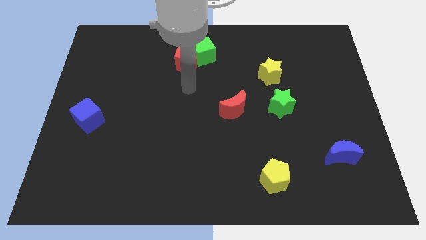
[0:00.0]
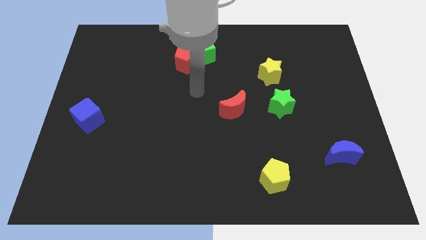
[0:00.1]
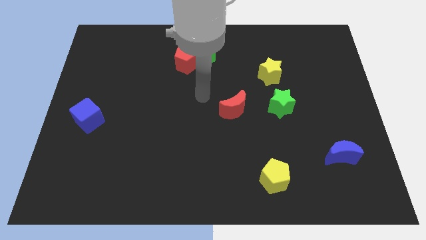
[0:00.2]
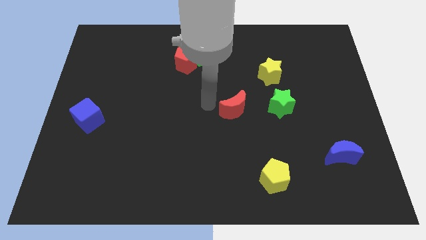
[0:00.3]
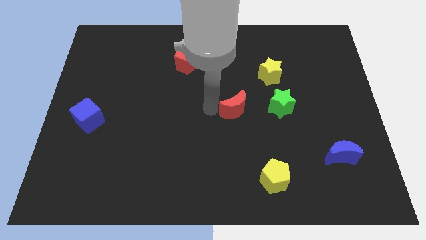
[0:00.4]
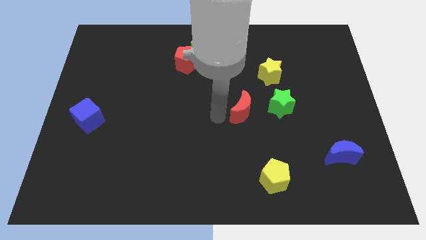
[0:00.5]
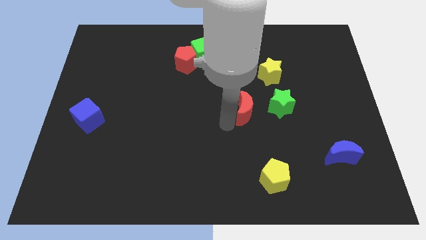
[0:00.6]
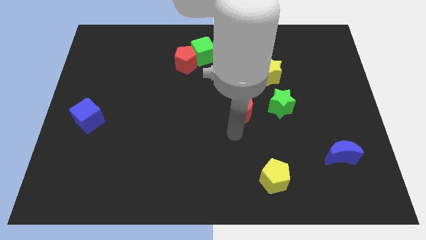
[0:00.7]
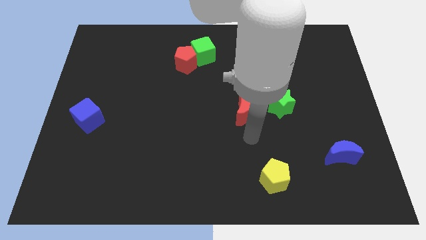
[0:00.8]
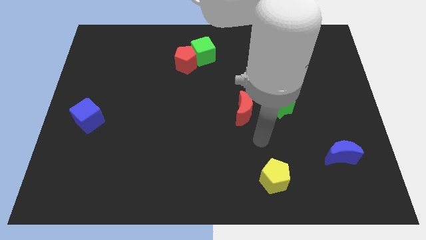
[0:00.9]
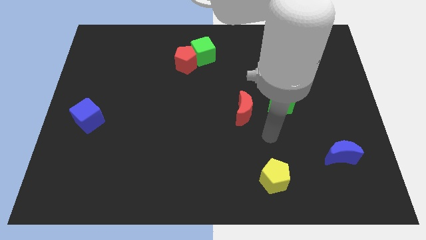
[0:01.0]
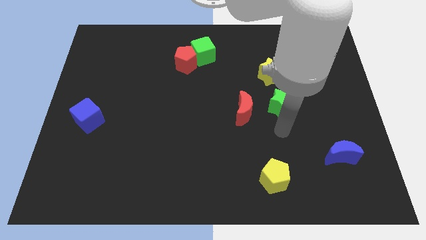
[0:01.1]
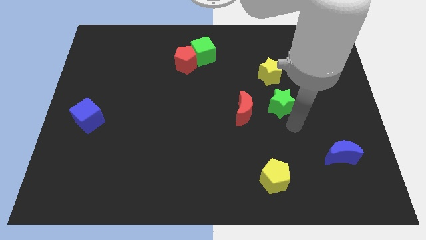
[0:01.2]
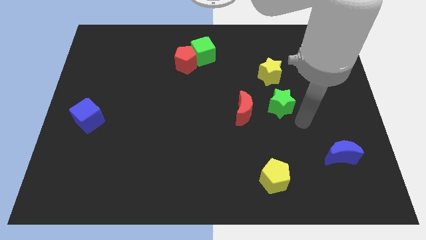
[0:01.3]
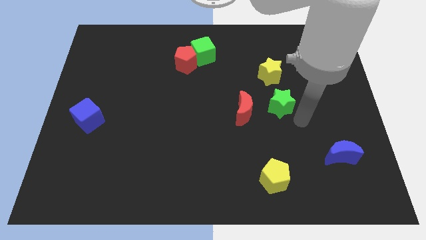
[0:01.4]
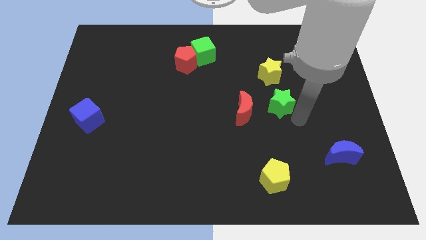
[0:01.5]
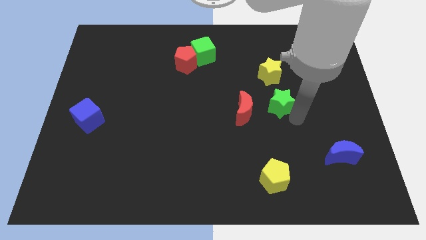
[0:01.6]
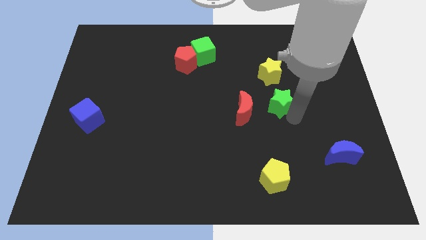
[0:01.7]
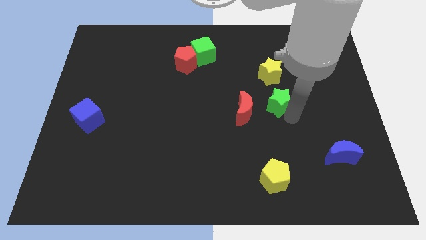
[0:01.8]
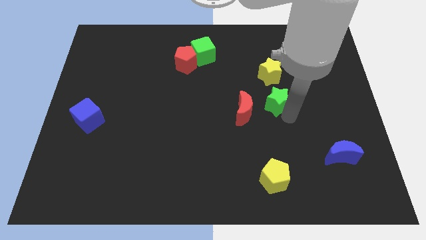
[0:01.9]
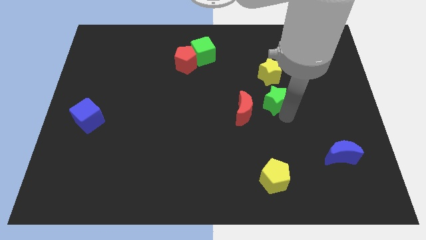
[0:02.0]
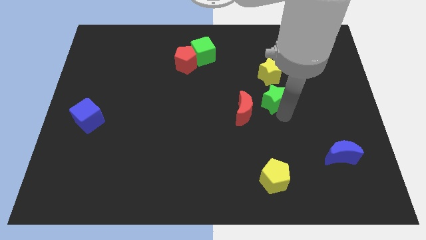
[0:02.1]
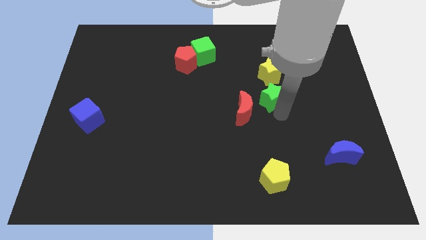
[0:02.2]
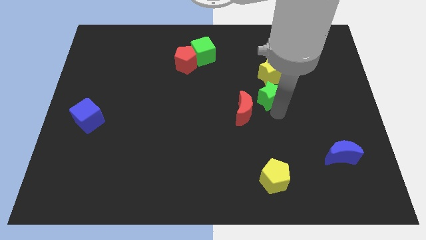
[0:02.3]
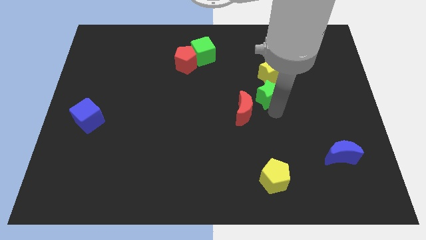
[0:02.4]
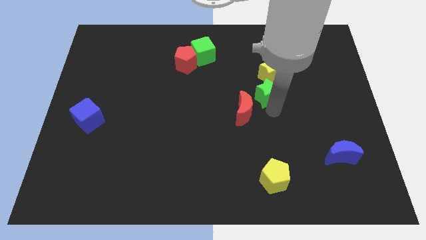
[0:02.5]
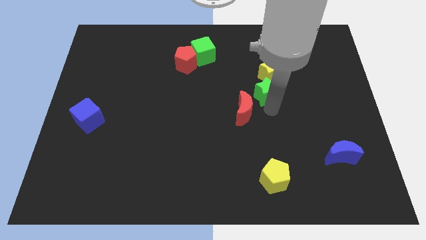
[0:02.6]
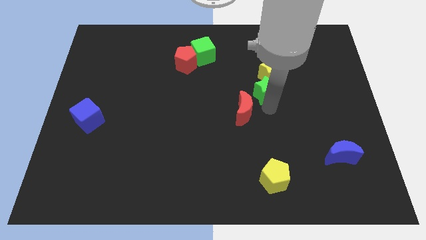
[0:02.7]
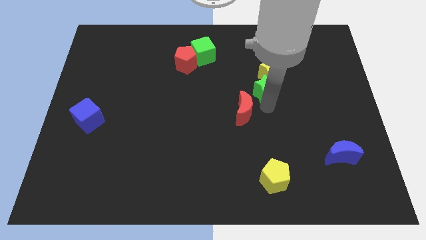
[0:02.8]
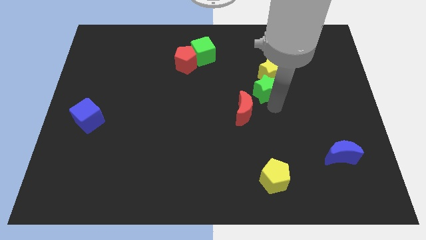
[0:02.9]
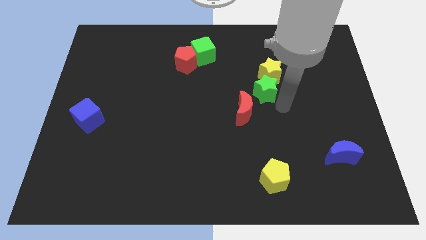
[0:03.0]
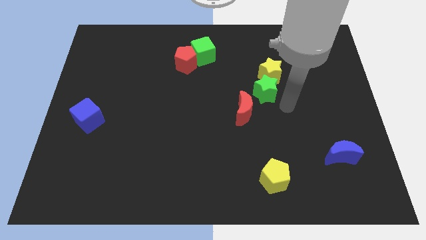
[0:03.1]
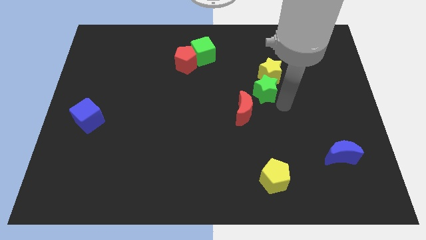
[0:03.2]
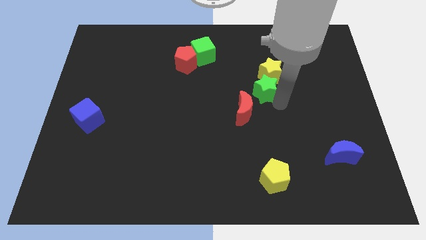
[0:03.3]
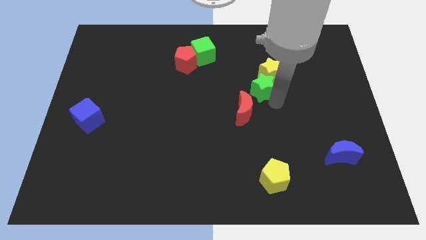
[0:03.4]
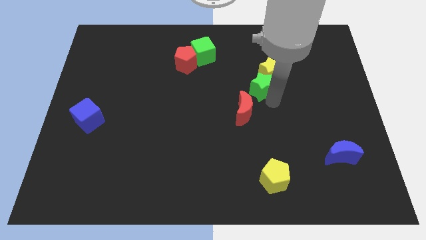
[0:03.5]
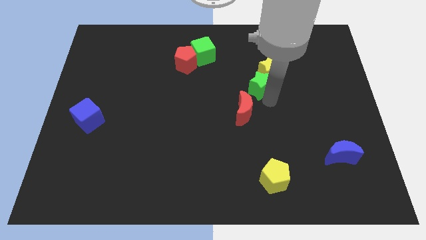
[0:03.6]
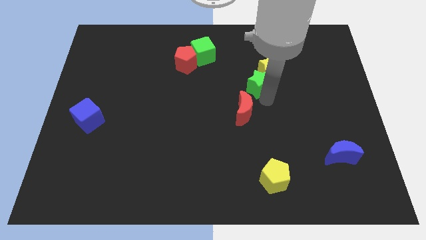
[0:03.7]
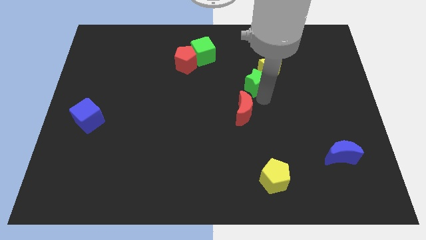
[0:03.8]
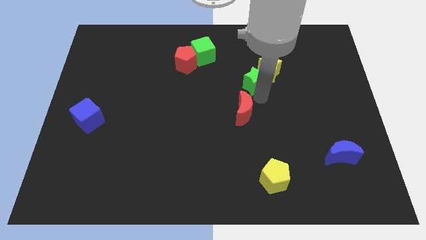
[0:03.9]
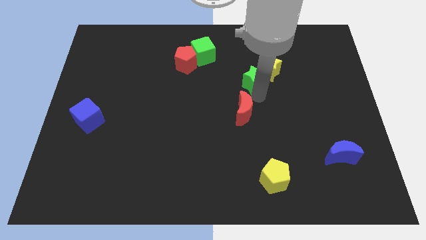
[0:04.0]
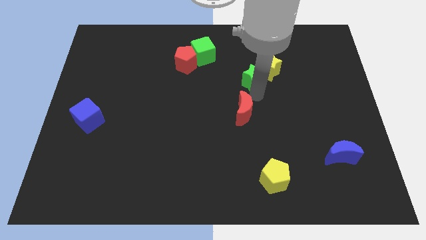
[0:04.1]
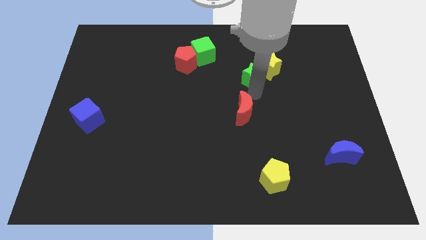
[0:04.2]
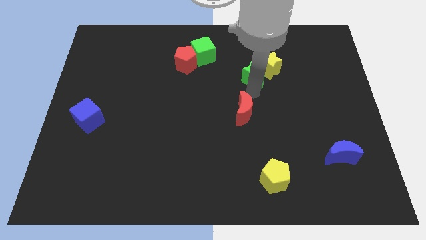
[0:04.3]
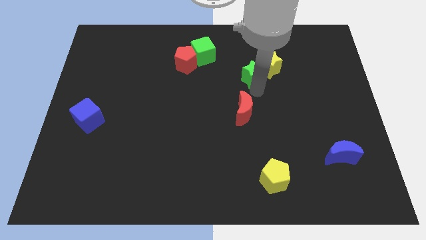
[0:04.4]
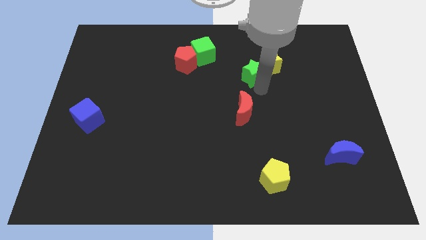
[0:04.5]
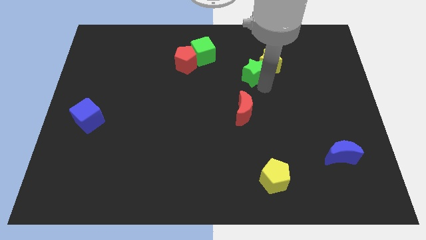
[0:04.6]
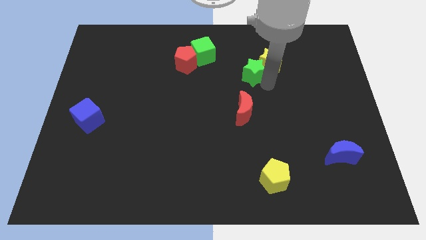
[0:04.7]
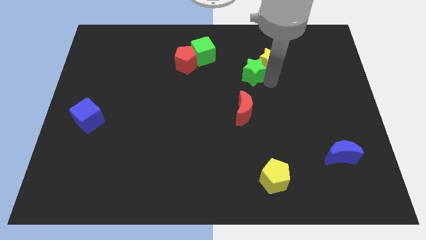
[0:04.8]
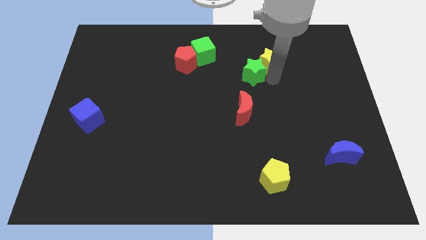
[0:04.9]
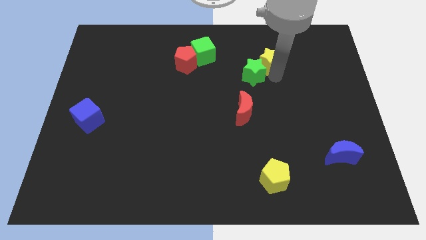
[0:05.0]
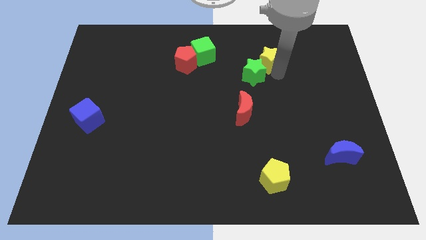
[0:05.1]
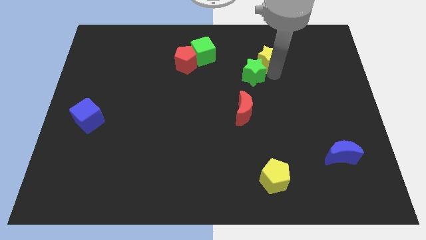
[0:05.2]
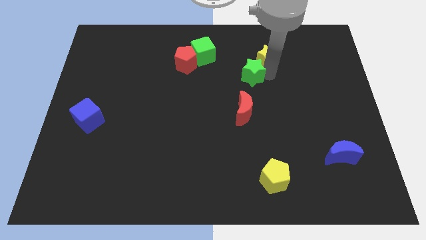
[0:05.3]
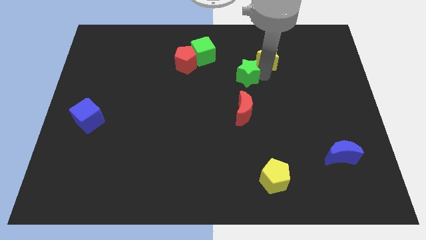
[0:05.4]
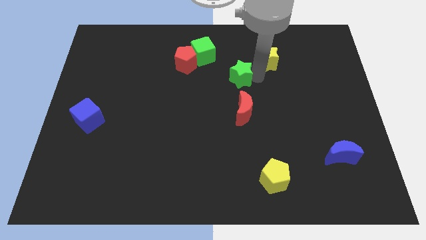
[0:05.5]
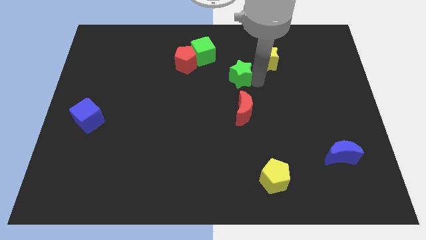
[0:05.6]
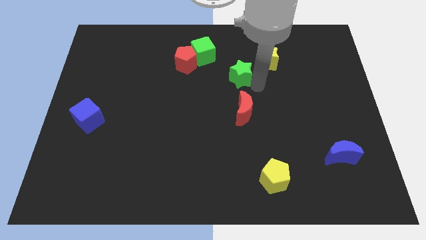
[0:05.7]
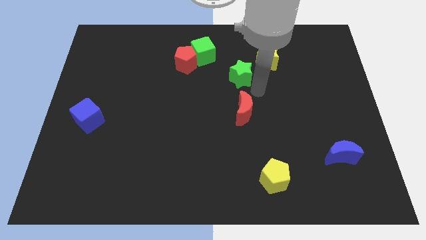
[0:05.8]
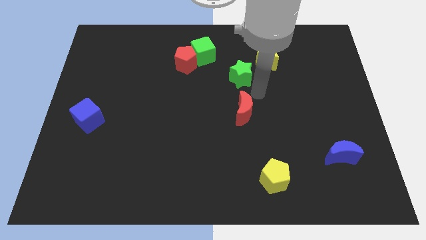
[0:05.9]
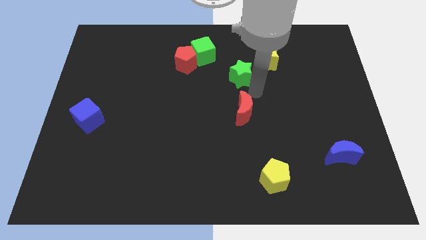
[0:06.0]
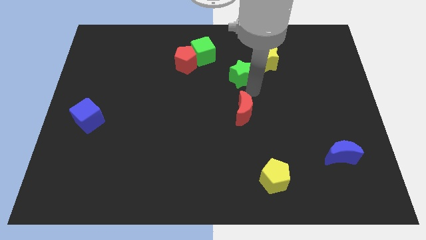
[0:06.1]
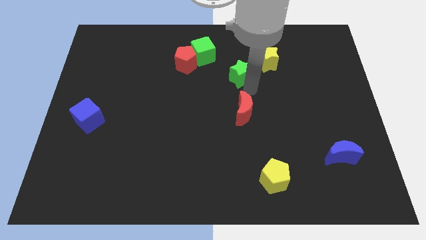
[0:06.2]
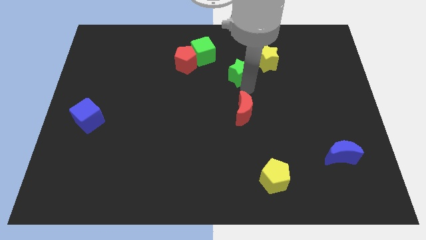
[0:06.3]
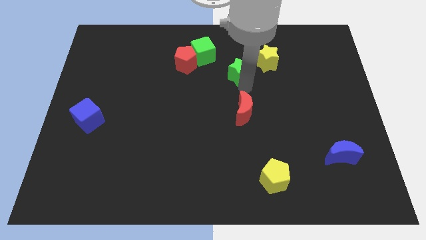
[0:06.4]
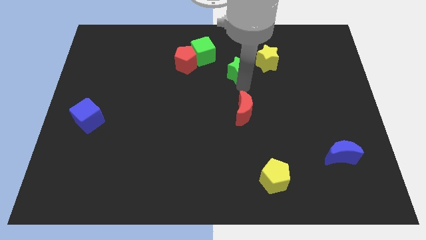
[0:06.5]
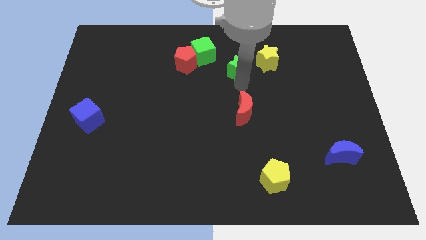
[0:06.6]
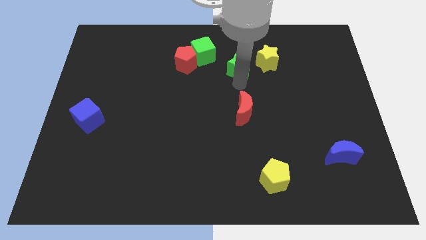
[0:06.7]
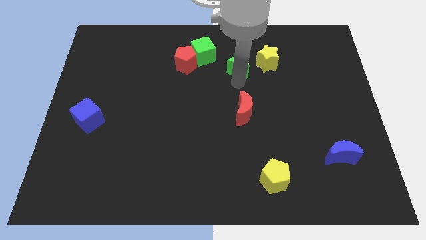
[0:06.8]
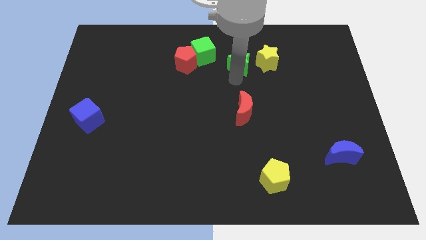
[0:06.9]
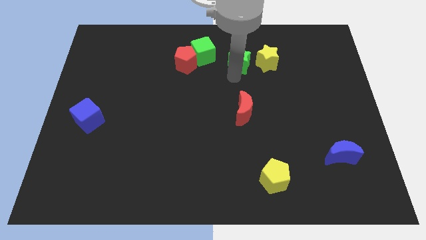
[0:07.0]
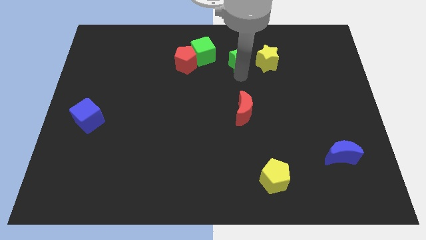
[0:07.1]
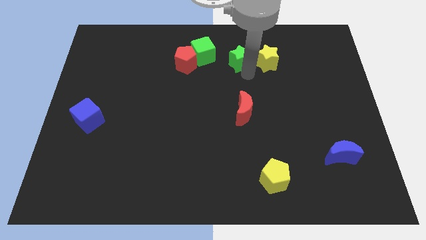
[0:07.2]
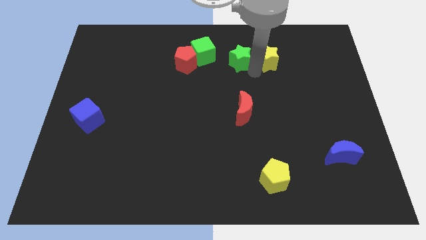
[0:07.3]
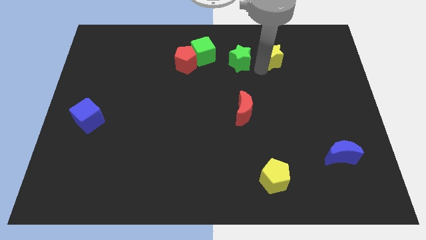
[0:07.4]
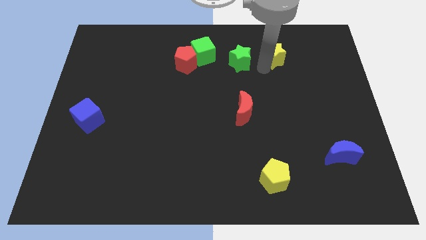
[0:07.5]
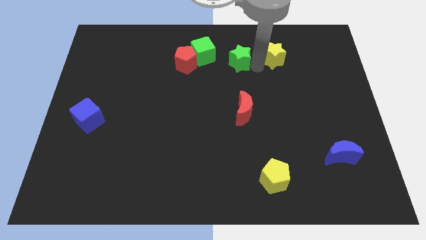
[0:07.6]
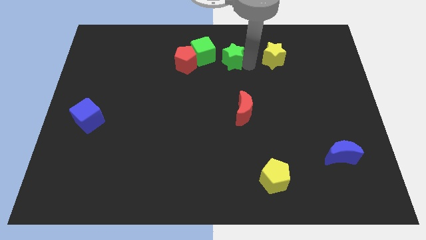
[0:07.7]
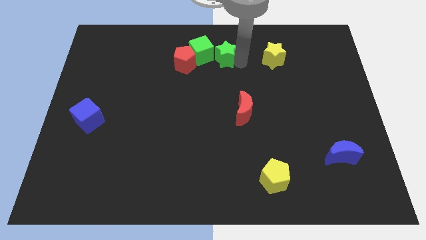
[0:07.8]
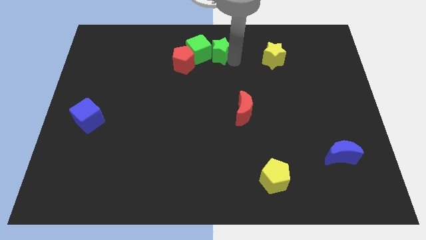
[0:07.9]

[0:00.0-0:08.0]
move the green star close to the green cube

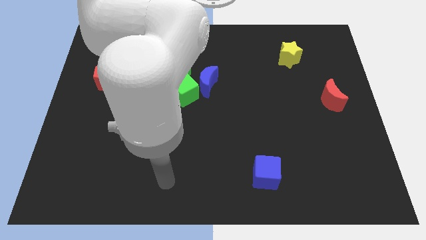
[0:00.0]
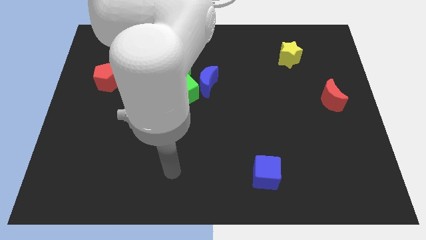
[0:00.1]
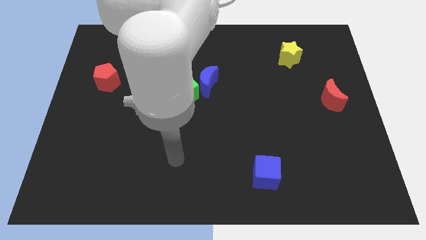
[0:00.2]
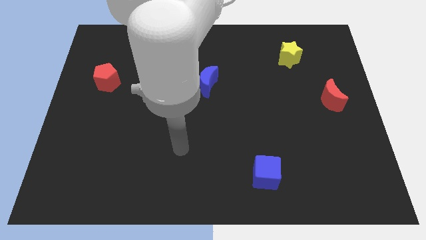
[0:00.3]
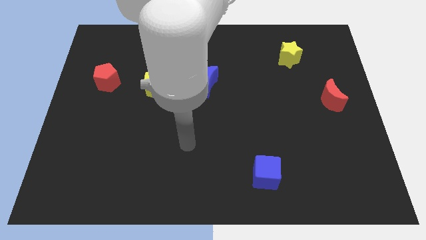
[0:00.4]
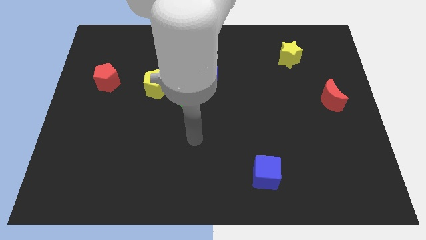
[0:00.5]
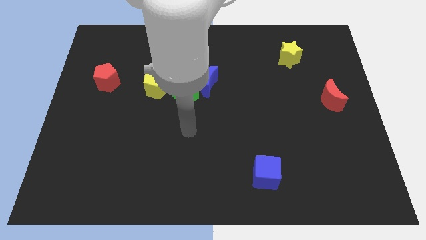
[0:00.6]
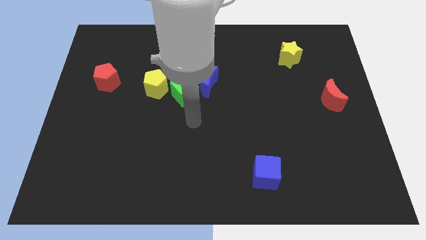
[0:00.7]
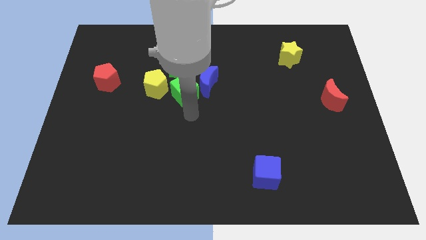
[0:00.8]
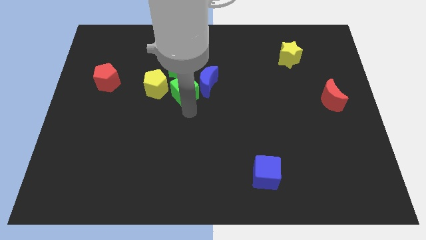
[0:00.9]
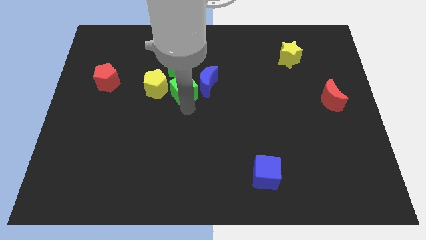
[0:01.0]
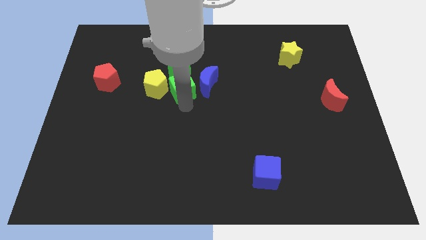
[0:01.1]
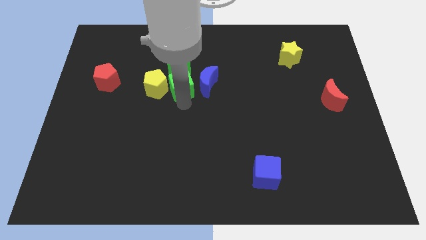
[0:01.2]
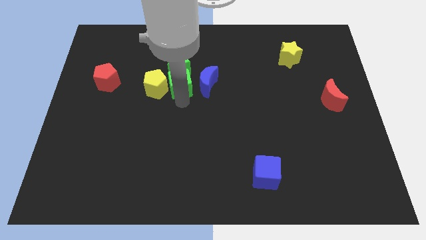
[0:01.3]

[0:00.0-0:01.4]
slide the green cube next to the green star
